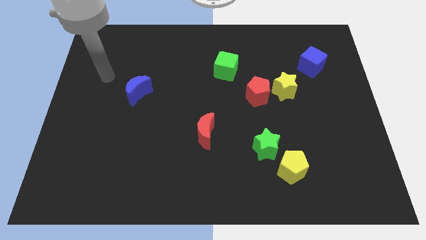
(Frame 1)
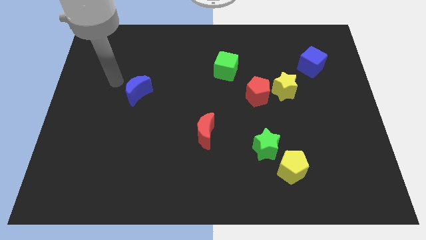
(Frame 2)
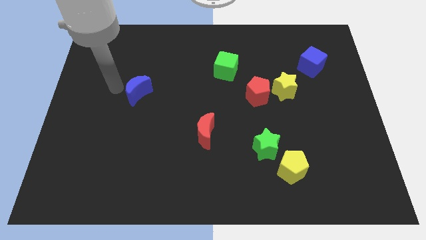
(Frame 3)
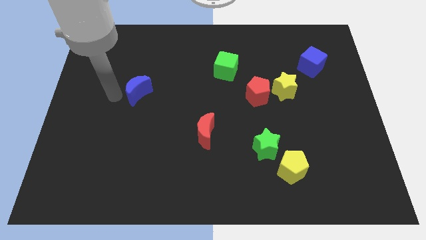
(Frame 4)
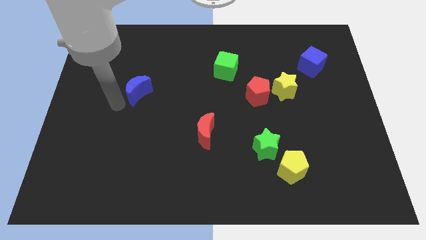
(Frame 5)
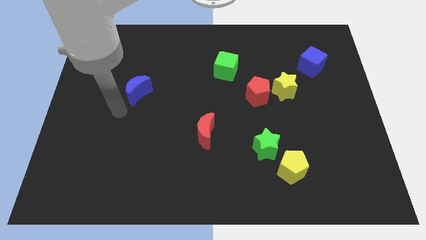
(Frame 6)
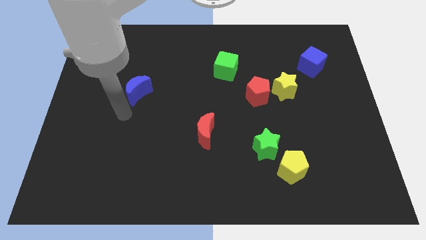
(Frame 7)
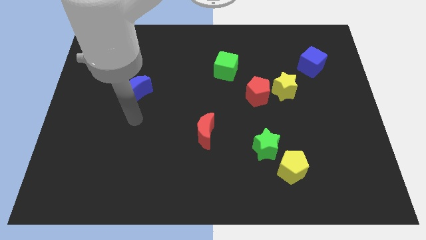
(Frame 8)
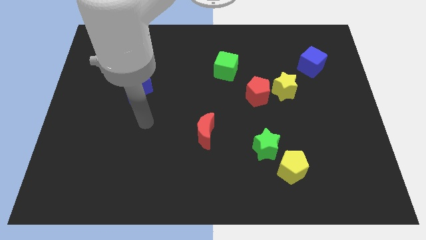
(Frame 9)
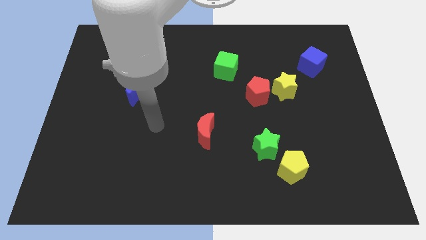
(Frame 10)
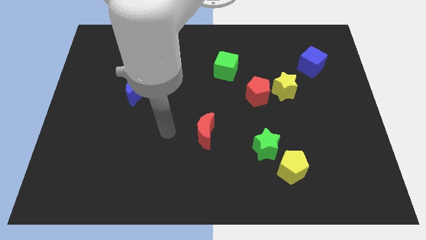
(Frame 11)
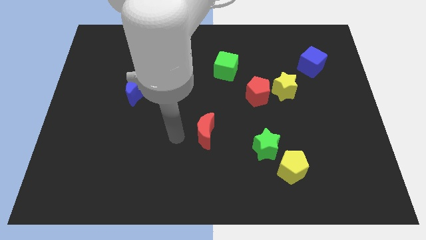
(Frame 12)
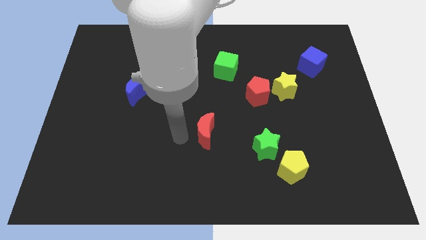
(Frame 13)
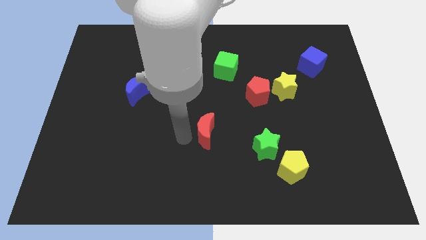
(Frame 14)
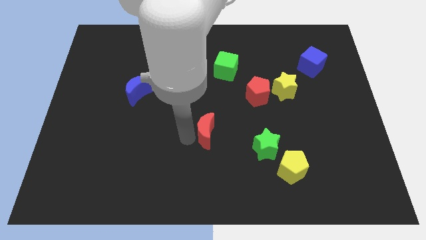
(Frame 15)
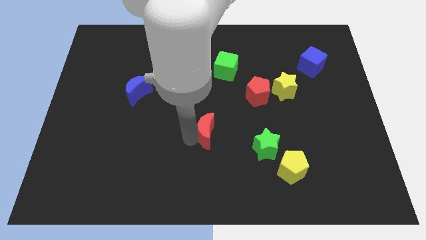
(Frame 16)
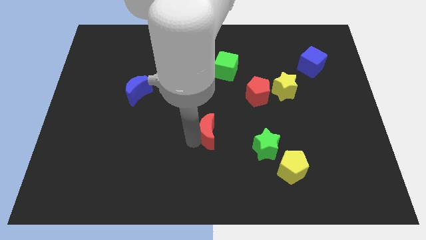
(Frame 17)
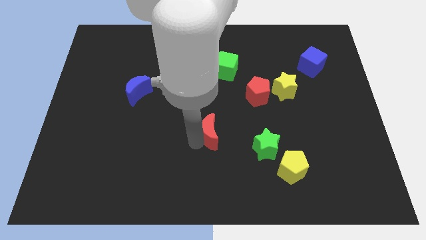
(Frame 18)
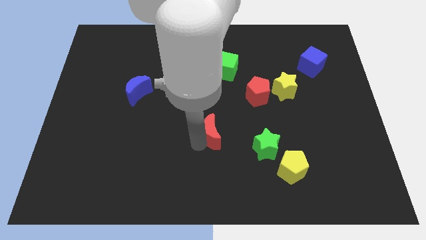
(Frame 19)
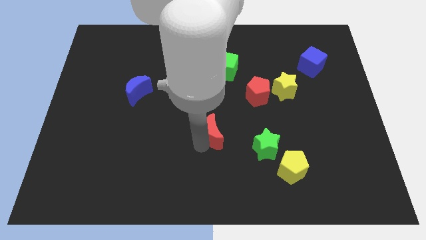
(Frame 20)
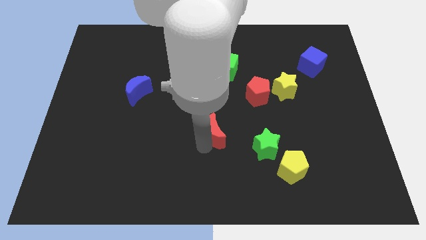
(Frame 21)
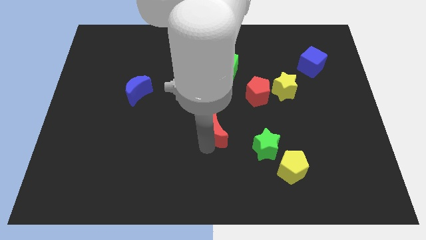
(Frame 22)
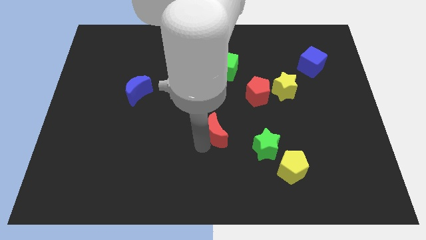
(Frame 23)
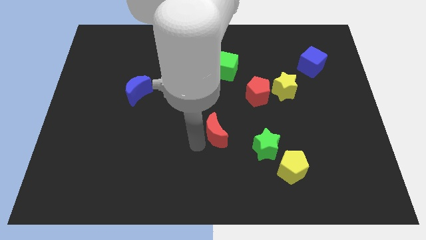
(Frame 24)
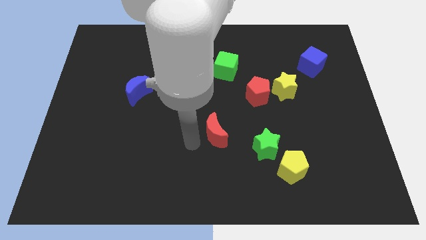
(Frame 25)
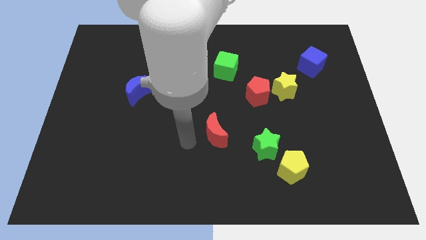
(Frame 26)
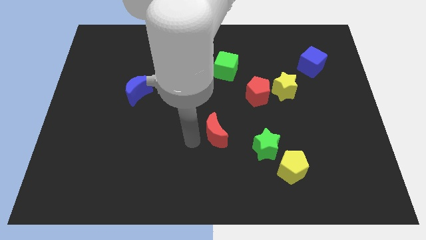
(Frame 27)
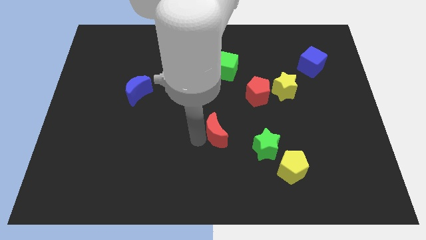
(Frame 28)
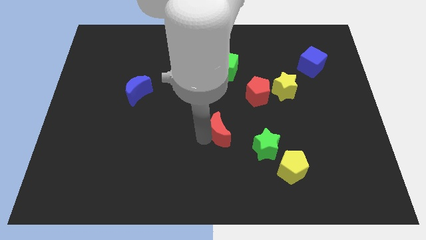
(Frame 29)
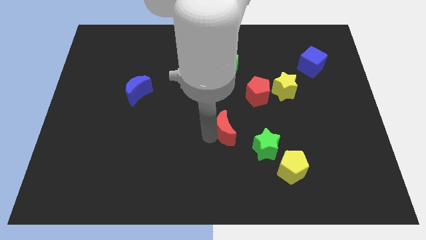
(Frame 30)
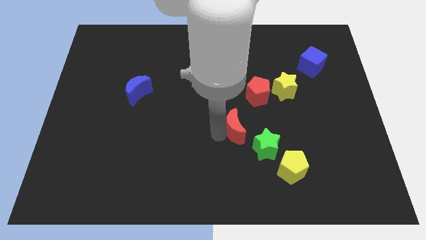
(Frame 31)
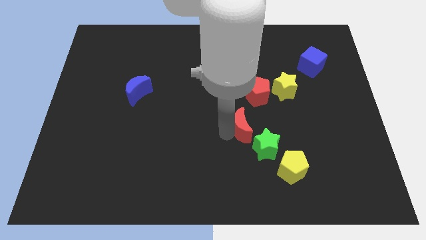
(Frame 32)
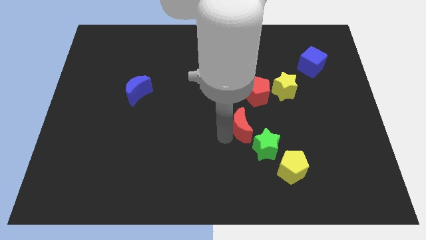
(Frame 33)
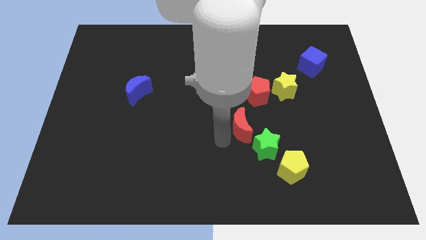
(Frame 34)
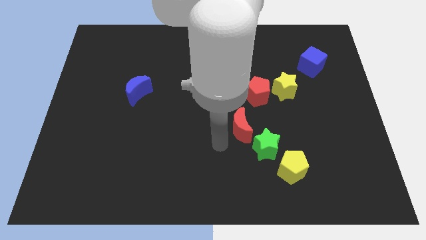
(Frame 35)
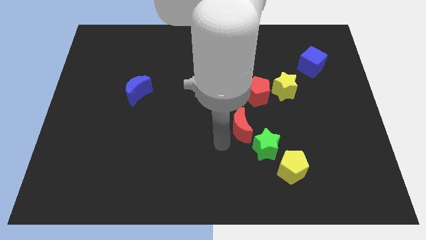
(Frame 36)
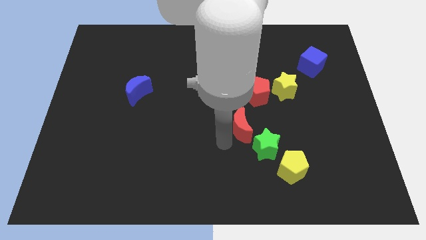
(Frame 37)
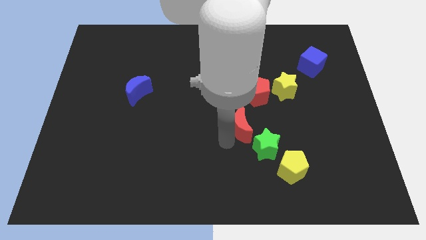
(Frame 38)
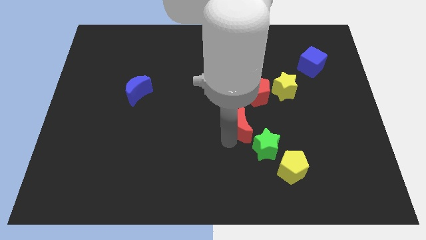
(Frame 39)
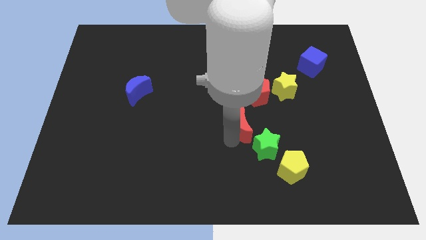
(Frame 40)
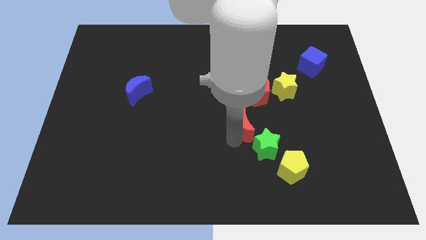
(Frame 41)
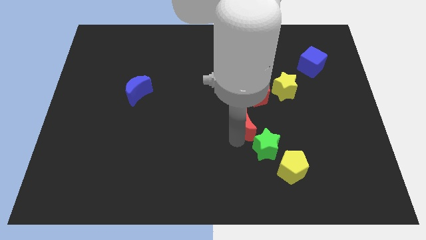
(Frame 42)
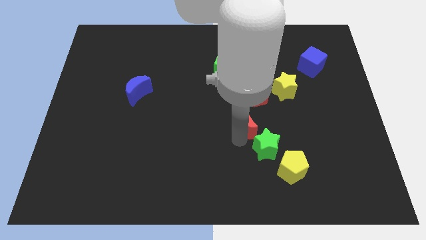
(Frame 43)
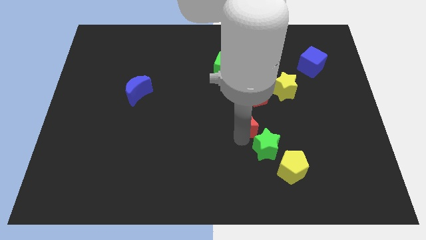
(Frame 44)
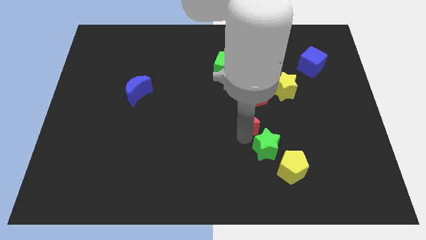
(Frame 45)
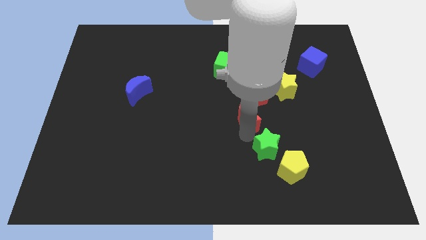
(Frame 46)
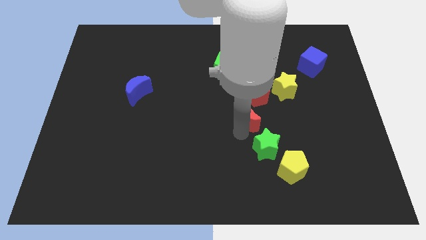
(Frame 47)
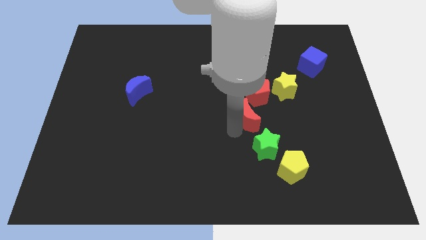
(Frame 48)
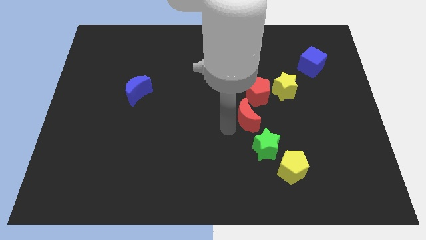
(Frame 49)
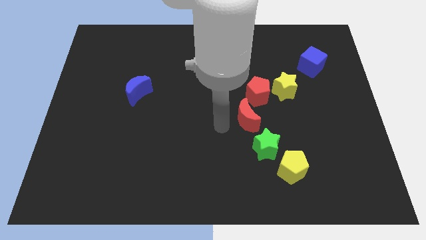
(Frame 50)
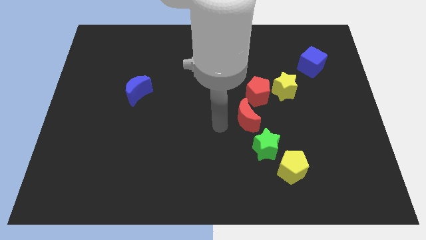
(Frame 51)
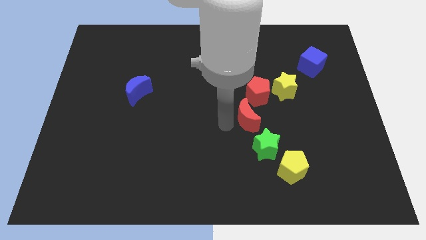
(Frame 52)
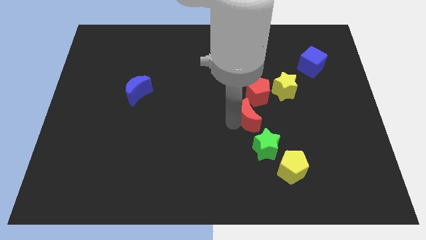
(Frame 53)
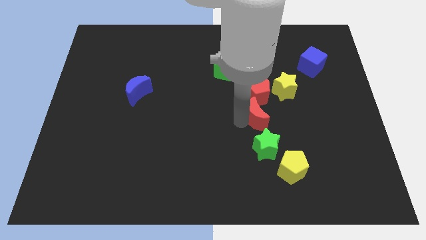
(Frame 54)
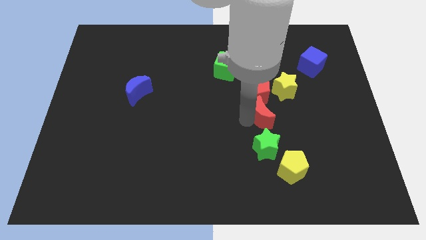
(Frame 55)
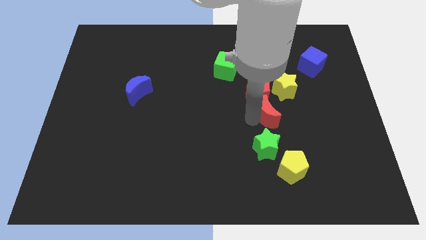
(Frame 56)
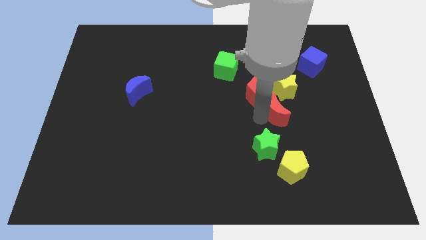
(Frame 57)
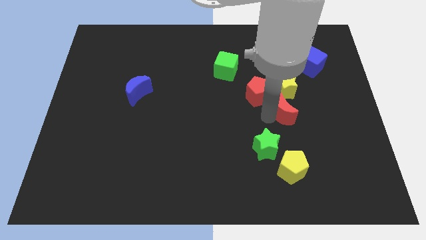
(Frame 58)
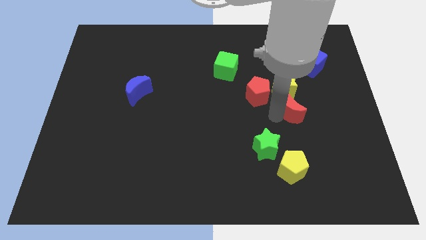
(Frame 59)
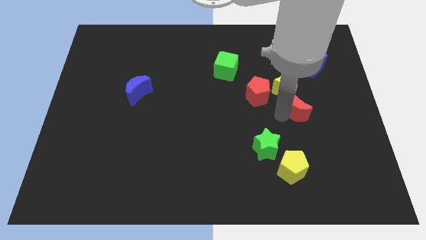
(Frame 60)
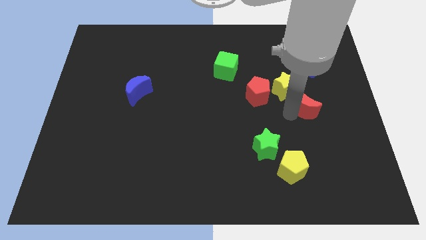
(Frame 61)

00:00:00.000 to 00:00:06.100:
slide the red moon to the bottom side of the blue cube
